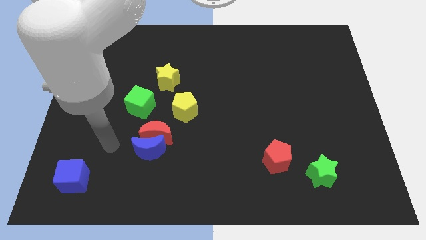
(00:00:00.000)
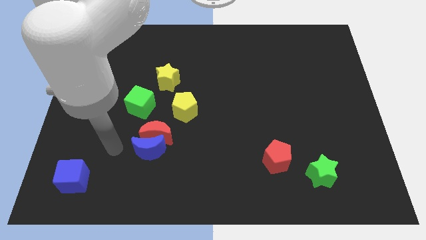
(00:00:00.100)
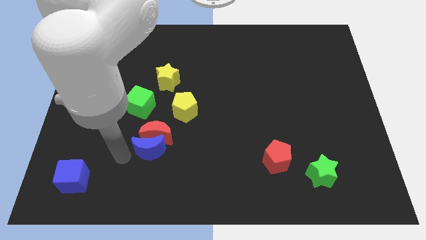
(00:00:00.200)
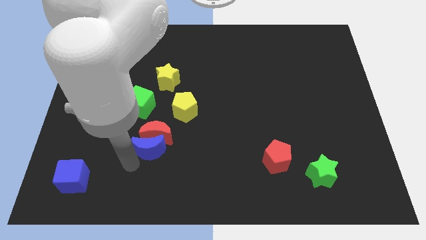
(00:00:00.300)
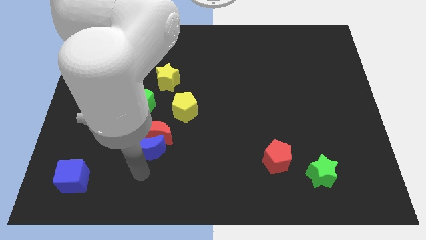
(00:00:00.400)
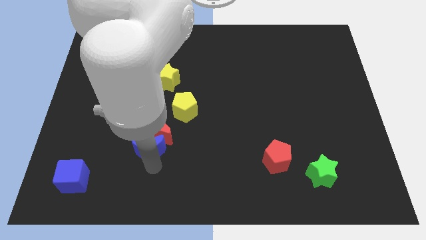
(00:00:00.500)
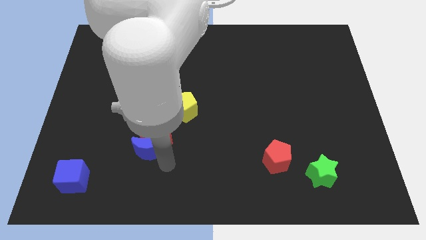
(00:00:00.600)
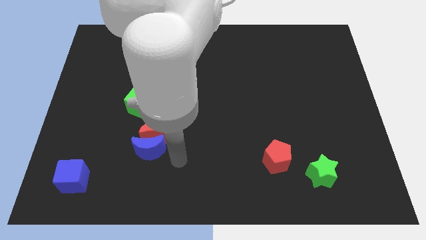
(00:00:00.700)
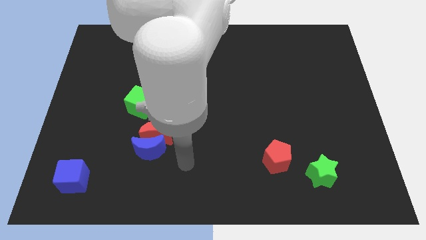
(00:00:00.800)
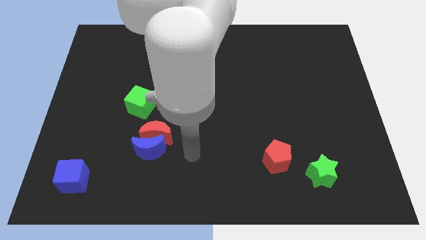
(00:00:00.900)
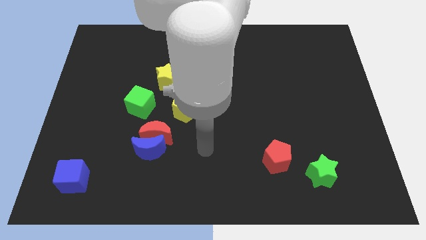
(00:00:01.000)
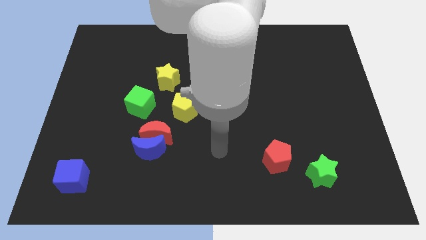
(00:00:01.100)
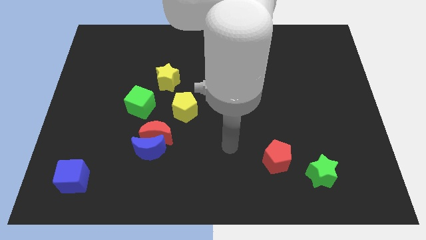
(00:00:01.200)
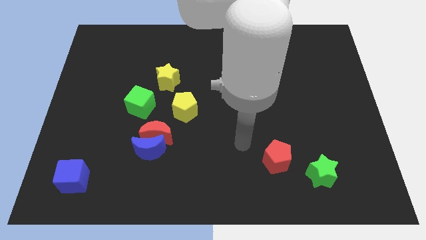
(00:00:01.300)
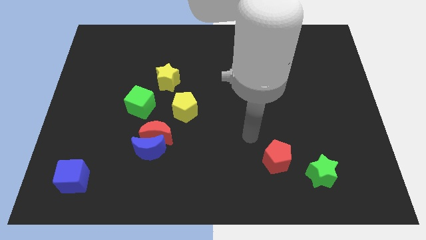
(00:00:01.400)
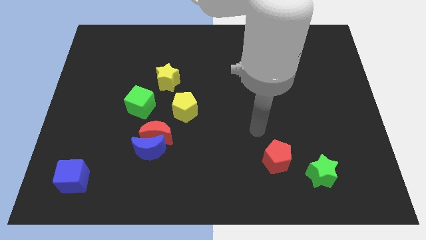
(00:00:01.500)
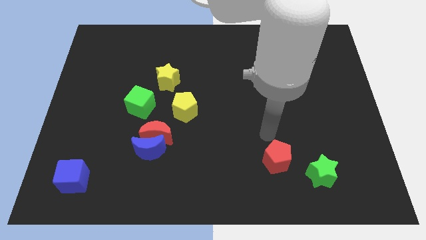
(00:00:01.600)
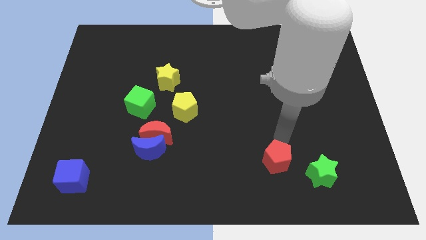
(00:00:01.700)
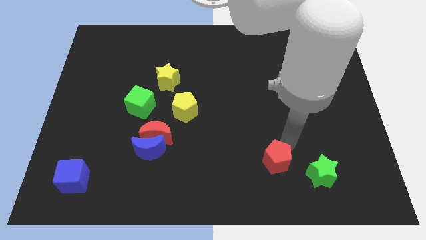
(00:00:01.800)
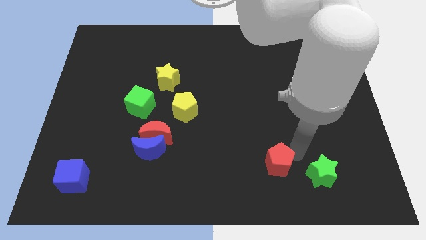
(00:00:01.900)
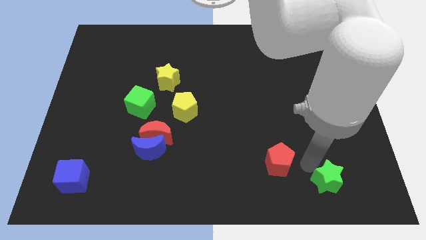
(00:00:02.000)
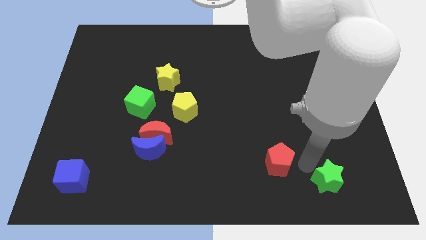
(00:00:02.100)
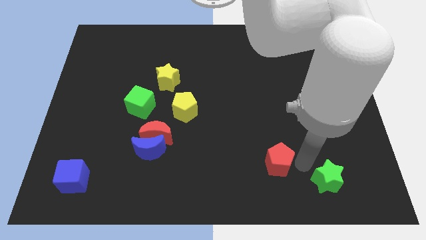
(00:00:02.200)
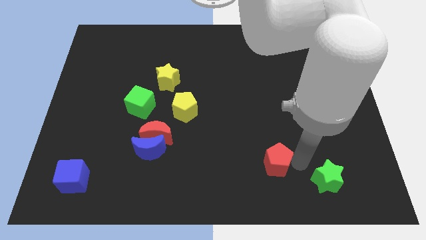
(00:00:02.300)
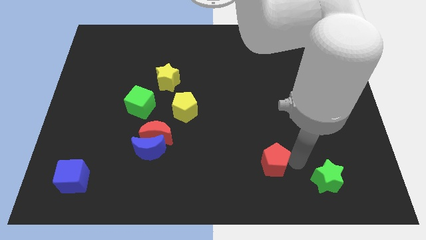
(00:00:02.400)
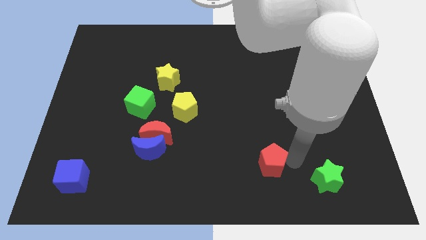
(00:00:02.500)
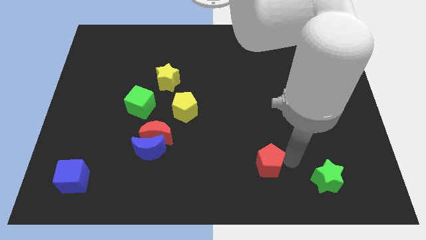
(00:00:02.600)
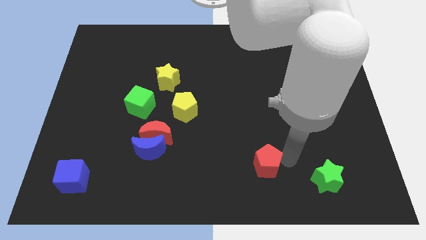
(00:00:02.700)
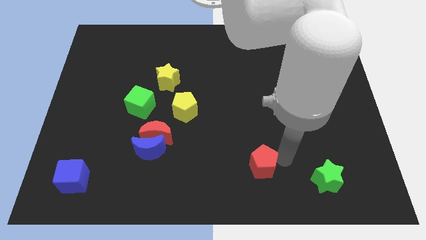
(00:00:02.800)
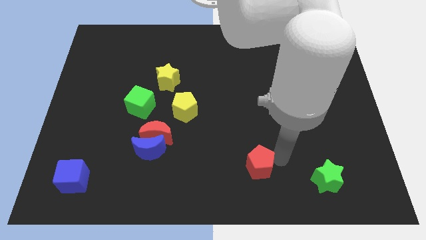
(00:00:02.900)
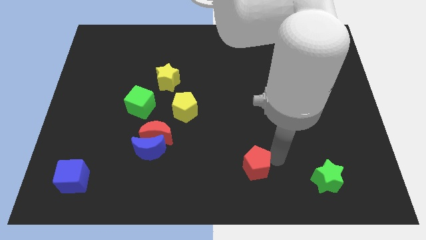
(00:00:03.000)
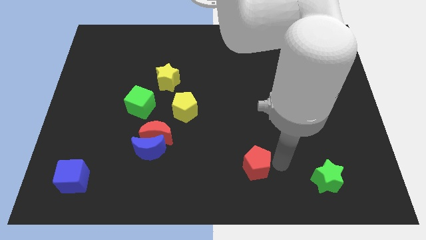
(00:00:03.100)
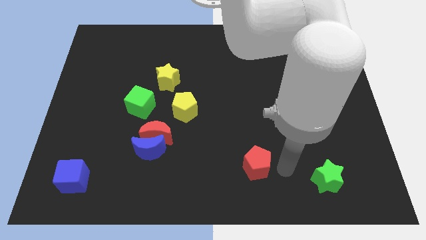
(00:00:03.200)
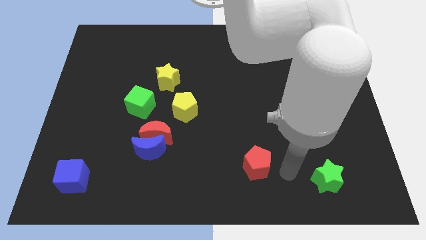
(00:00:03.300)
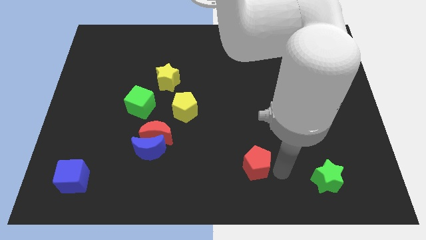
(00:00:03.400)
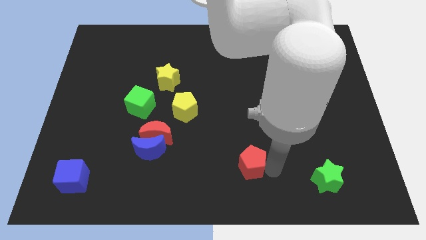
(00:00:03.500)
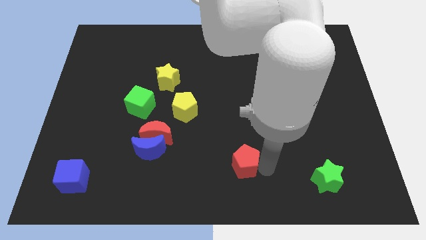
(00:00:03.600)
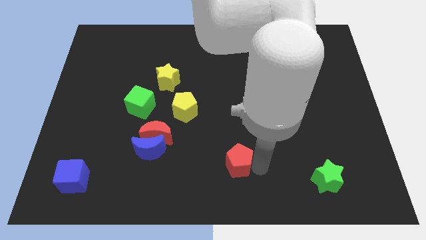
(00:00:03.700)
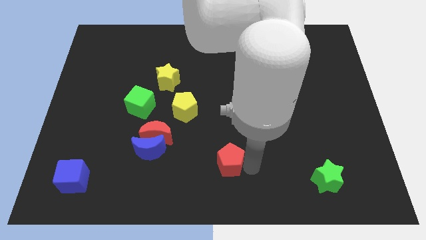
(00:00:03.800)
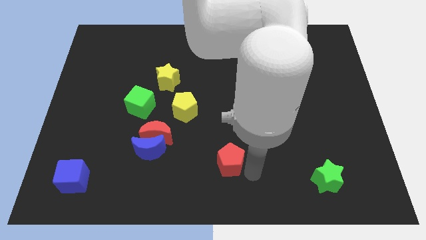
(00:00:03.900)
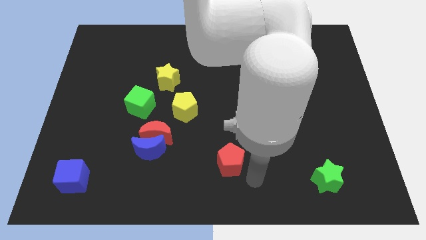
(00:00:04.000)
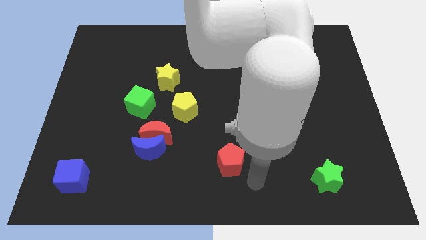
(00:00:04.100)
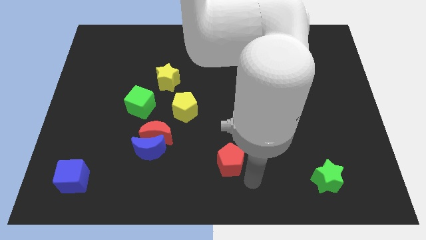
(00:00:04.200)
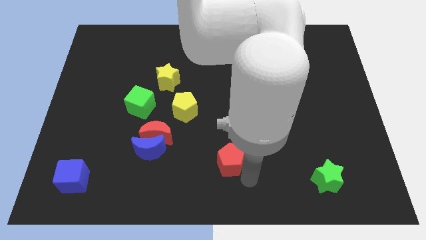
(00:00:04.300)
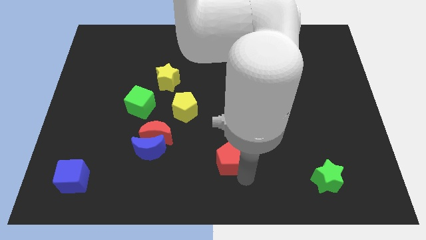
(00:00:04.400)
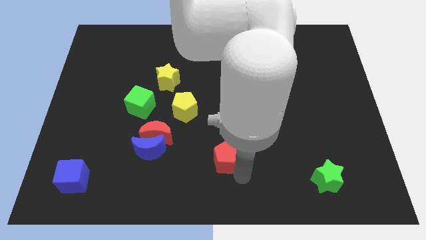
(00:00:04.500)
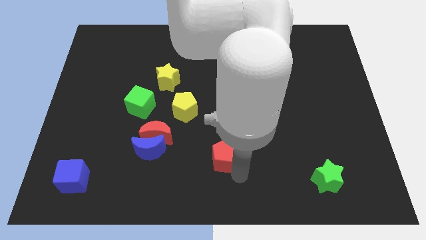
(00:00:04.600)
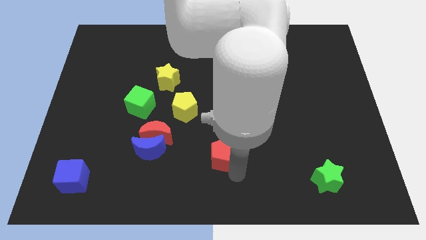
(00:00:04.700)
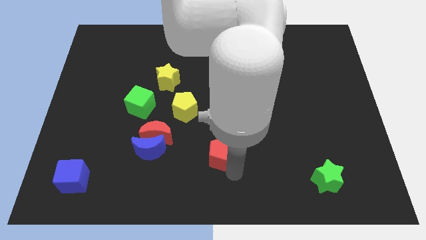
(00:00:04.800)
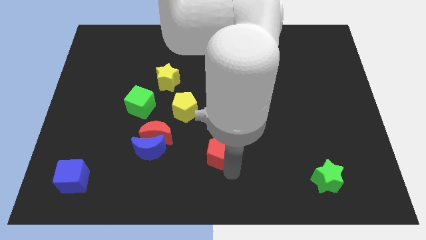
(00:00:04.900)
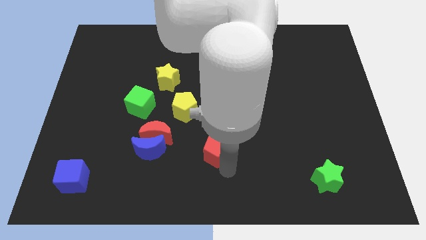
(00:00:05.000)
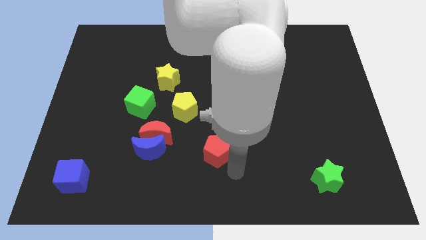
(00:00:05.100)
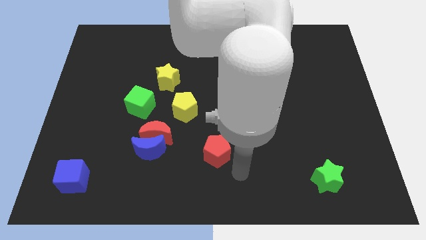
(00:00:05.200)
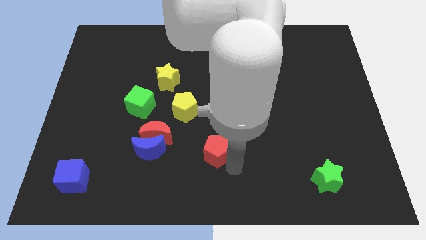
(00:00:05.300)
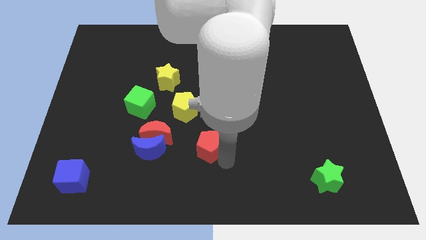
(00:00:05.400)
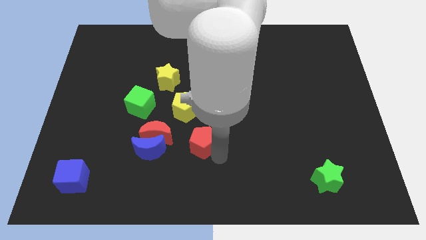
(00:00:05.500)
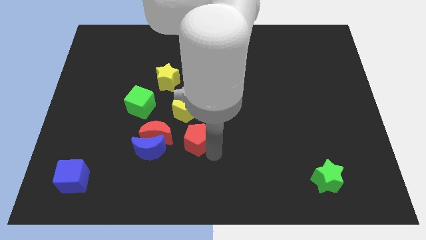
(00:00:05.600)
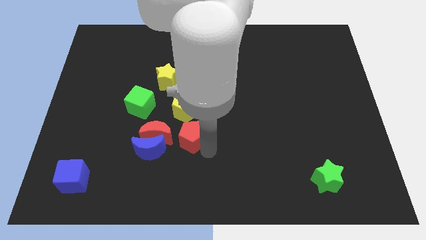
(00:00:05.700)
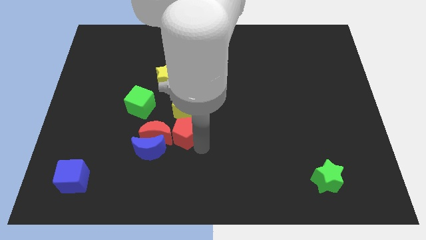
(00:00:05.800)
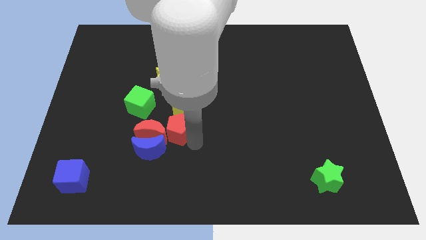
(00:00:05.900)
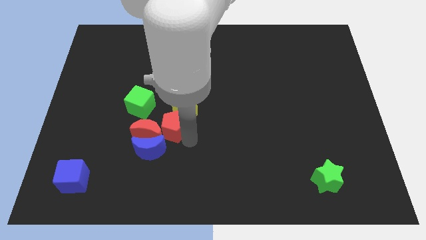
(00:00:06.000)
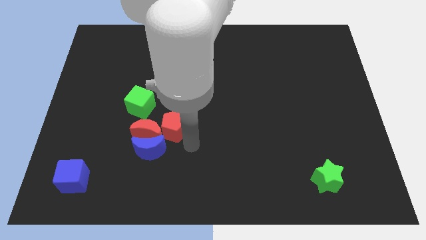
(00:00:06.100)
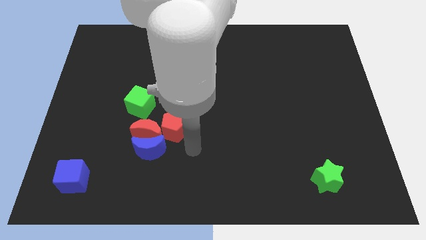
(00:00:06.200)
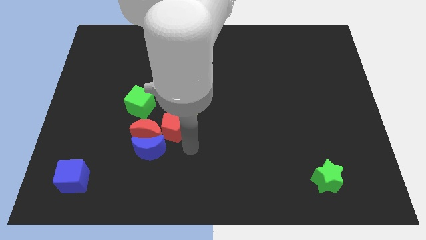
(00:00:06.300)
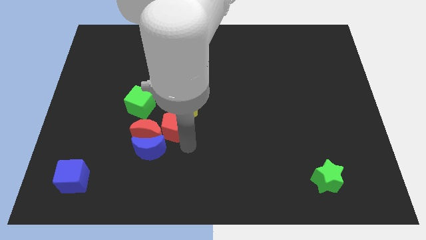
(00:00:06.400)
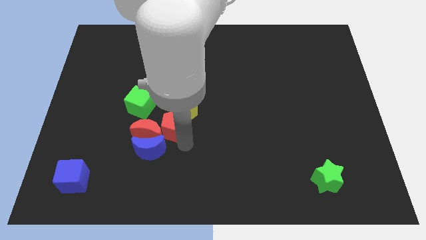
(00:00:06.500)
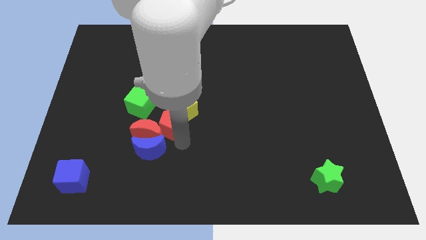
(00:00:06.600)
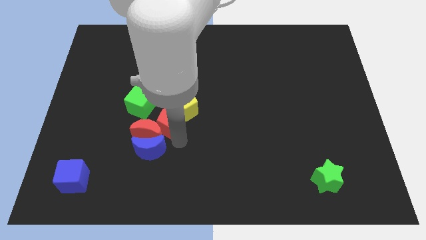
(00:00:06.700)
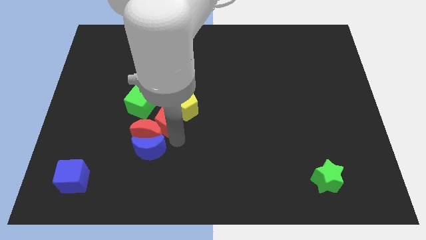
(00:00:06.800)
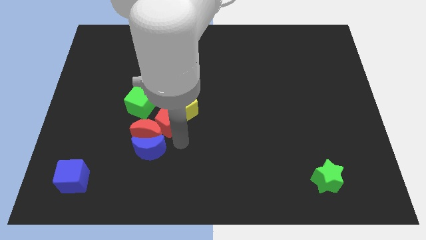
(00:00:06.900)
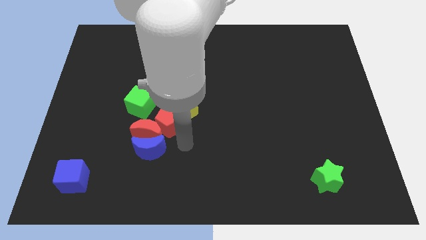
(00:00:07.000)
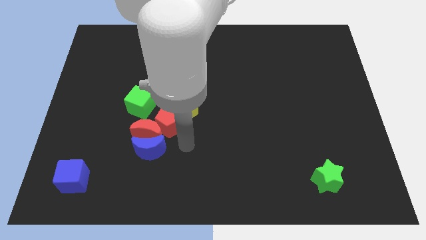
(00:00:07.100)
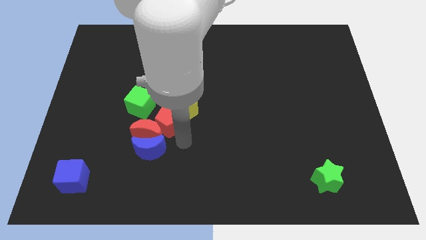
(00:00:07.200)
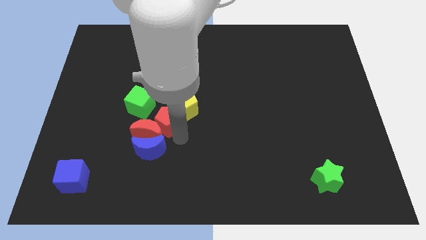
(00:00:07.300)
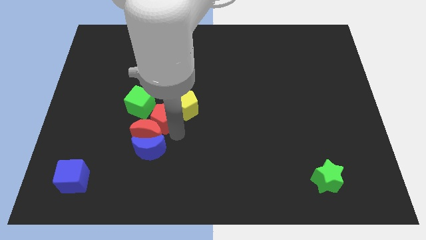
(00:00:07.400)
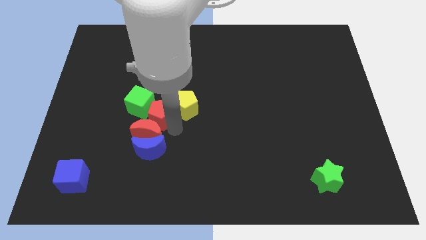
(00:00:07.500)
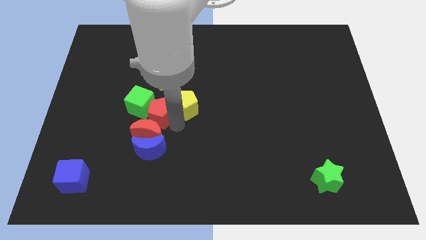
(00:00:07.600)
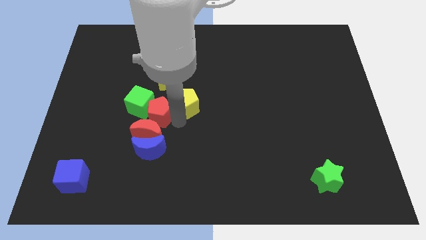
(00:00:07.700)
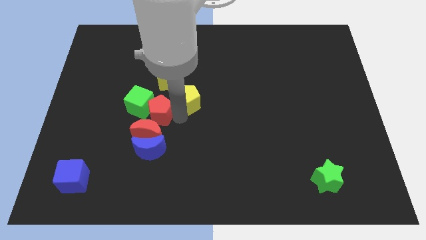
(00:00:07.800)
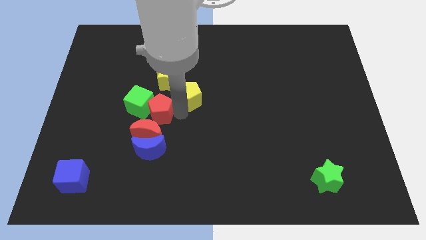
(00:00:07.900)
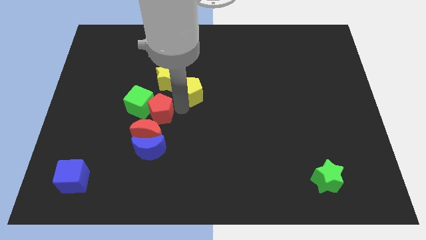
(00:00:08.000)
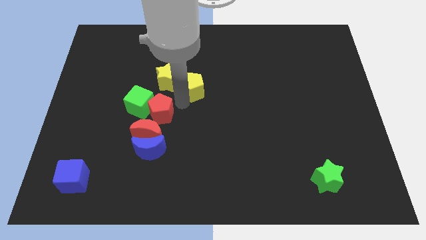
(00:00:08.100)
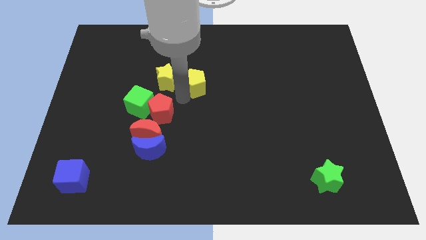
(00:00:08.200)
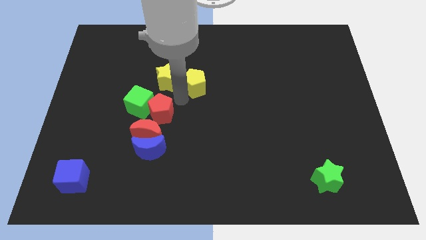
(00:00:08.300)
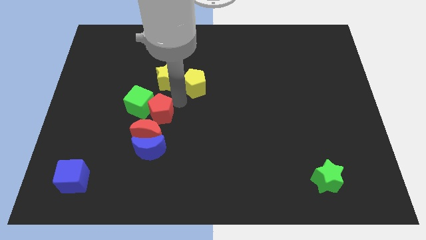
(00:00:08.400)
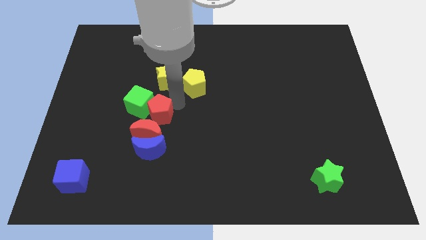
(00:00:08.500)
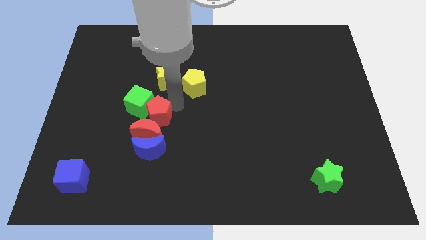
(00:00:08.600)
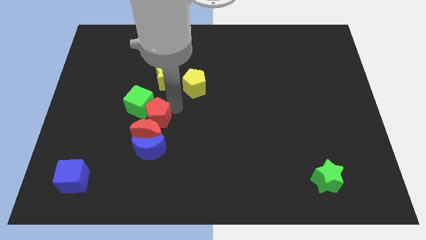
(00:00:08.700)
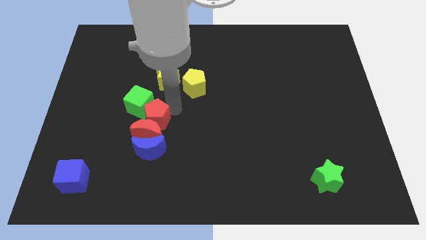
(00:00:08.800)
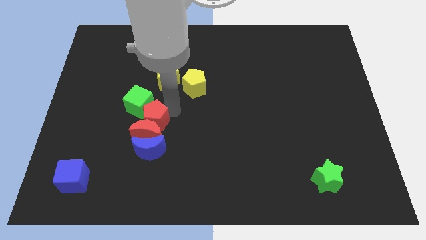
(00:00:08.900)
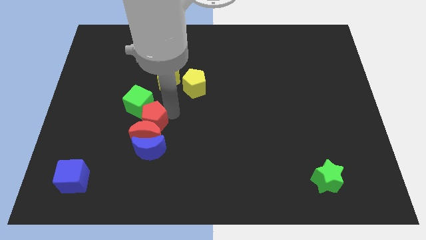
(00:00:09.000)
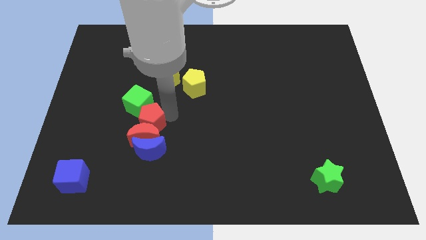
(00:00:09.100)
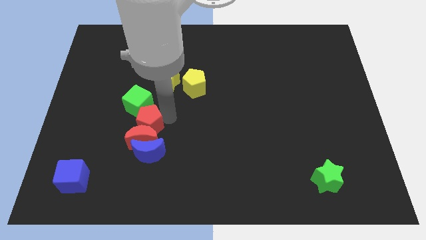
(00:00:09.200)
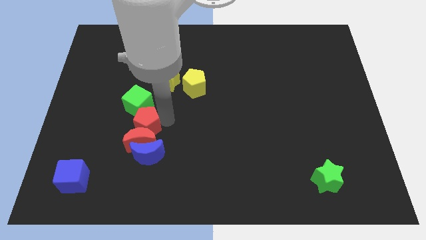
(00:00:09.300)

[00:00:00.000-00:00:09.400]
move the red pentagon diagonally up and to the left of the blue moon
